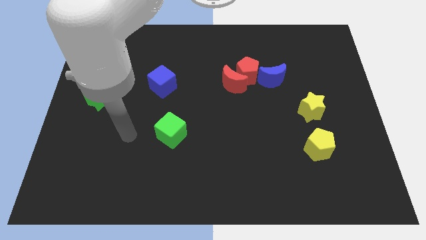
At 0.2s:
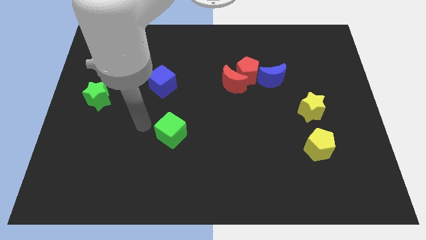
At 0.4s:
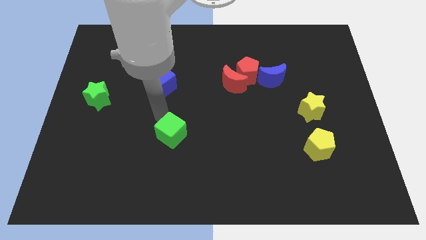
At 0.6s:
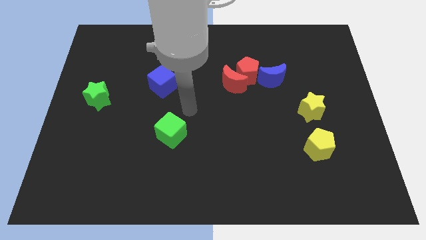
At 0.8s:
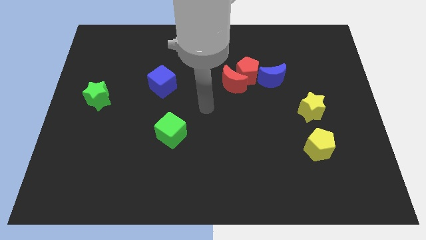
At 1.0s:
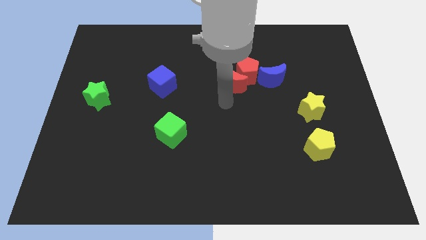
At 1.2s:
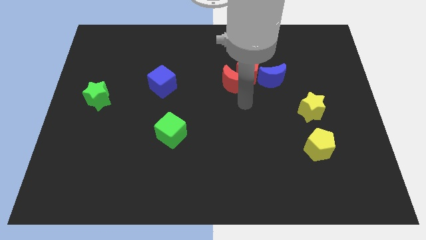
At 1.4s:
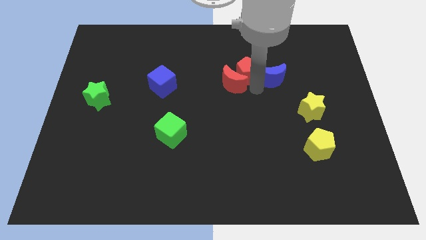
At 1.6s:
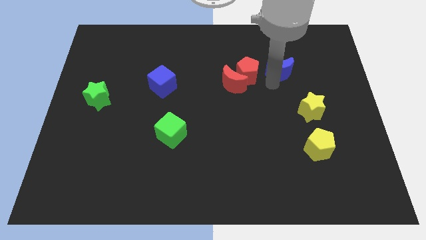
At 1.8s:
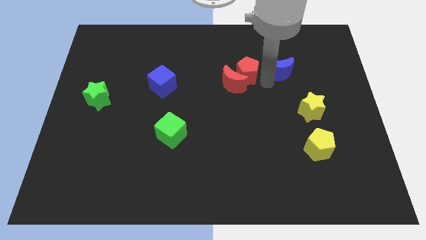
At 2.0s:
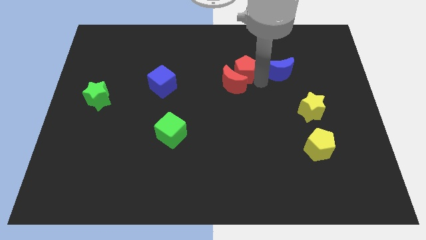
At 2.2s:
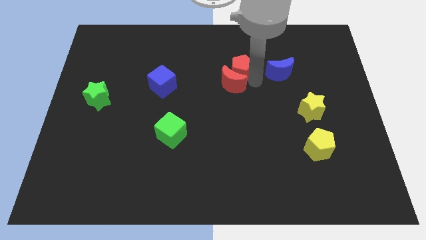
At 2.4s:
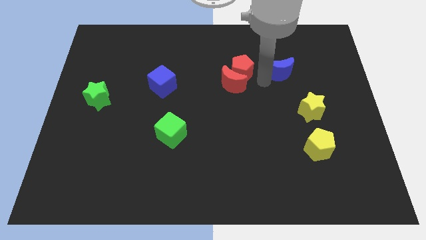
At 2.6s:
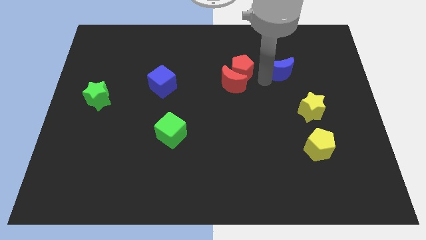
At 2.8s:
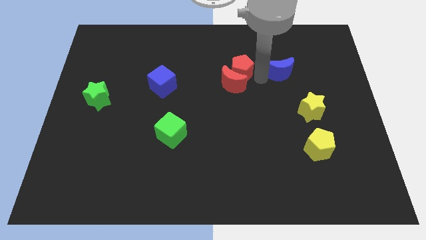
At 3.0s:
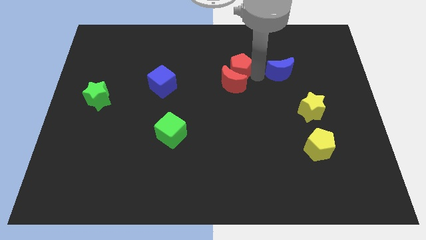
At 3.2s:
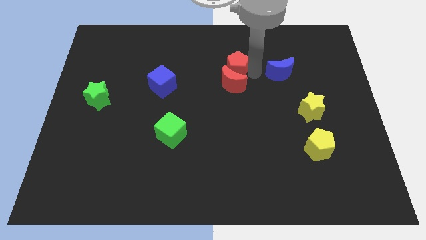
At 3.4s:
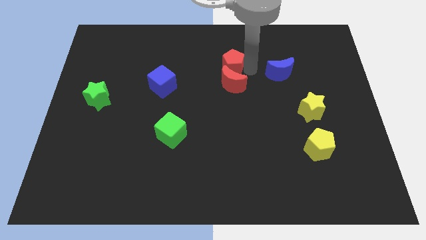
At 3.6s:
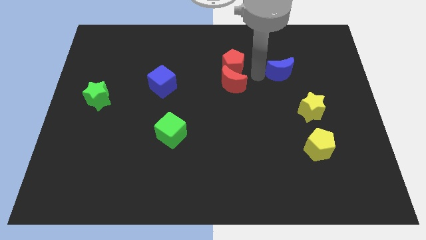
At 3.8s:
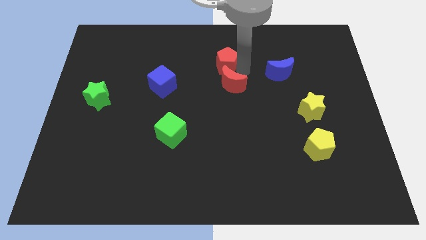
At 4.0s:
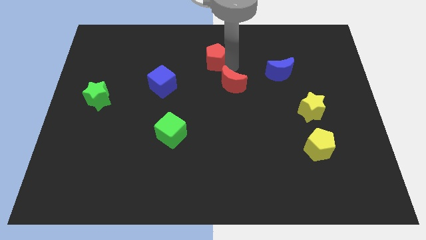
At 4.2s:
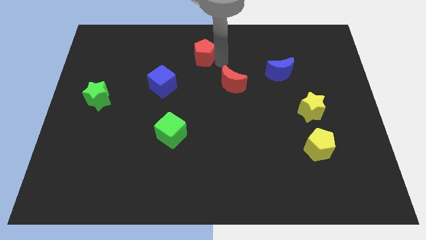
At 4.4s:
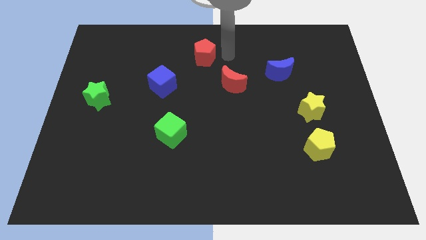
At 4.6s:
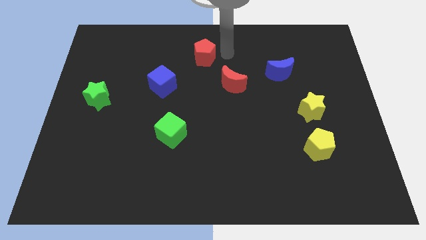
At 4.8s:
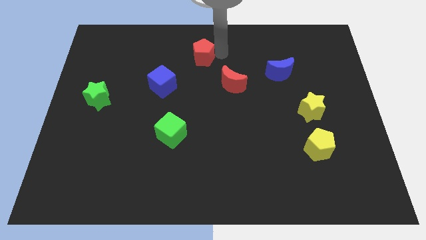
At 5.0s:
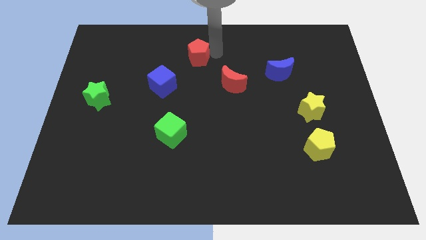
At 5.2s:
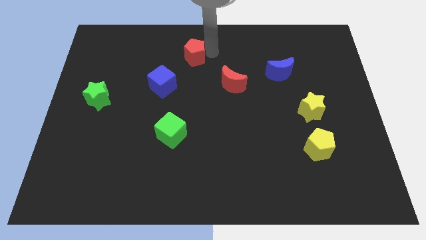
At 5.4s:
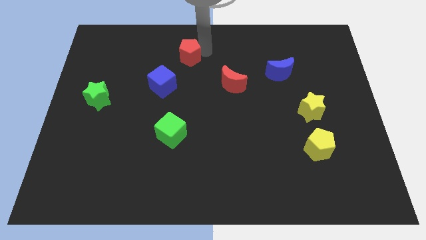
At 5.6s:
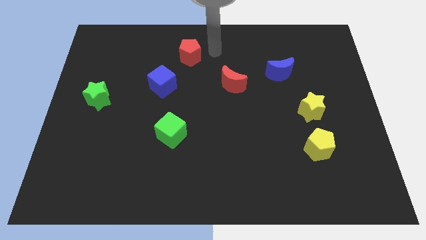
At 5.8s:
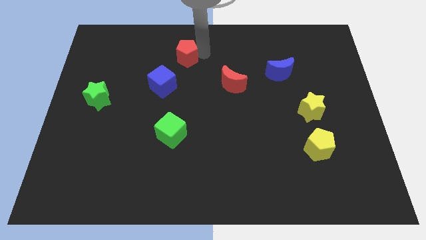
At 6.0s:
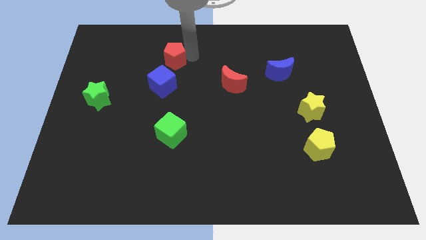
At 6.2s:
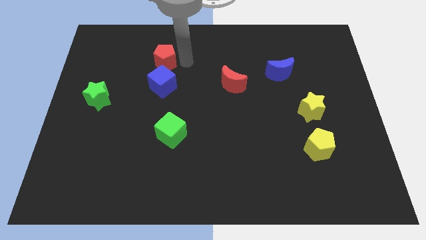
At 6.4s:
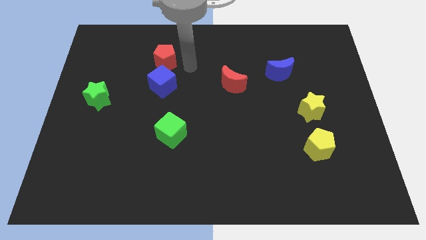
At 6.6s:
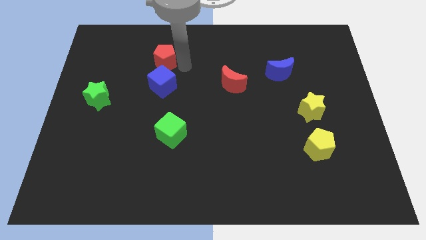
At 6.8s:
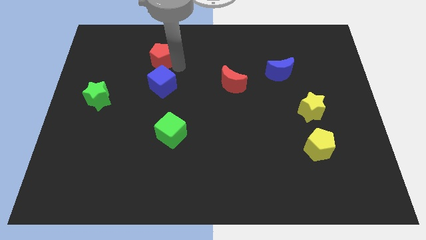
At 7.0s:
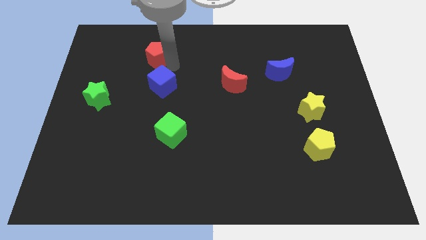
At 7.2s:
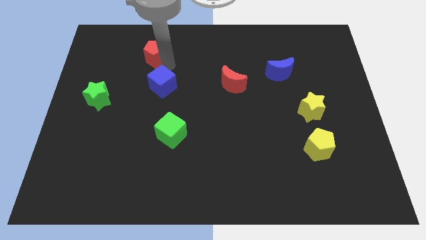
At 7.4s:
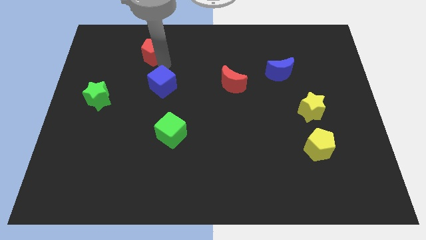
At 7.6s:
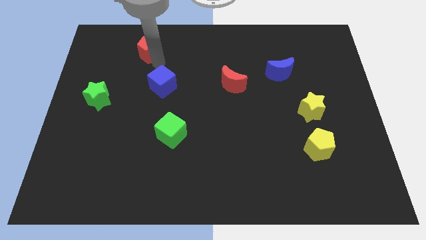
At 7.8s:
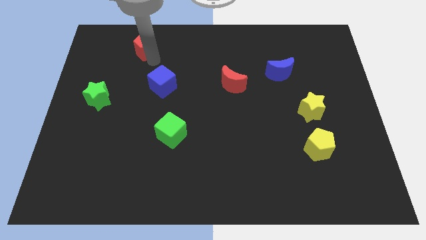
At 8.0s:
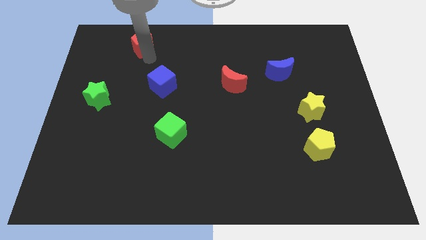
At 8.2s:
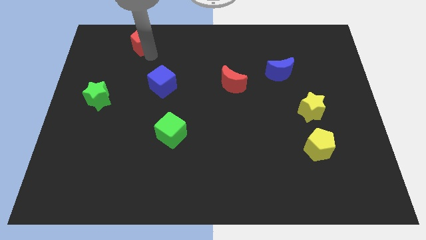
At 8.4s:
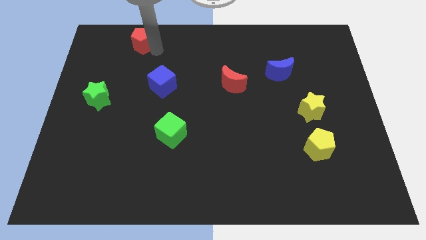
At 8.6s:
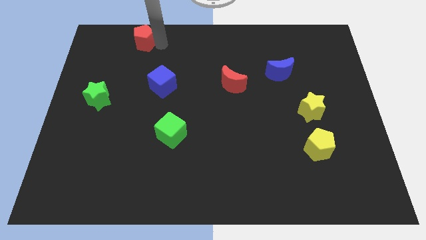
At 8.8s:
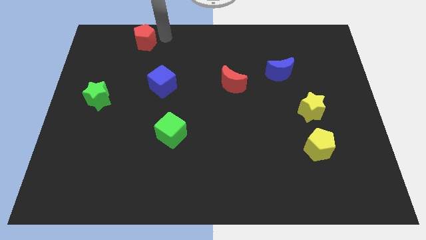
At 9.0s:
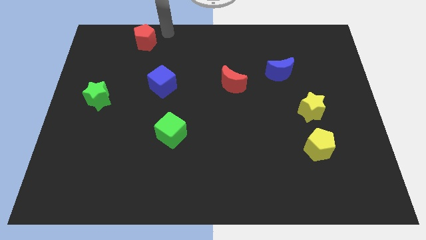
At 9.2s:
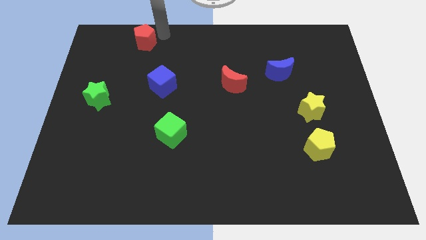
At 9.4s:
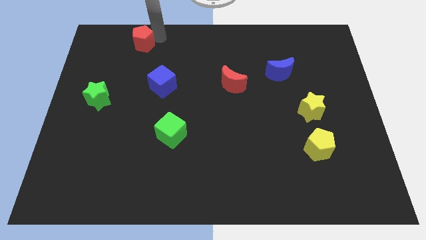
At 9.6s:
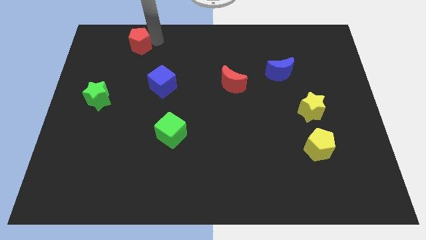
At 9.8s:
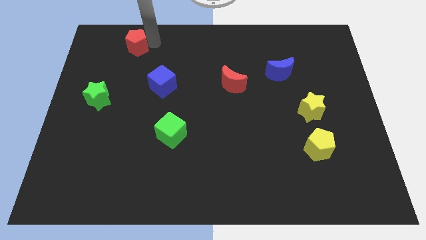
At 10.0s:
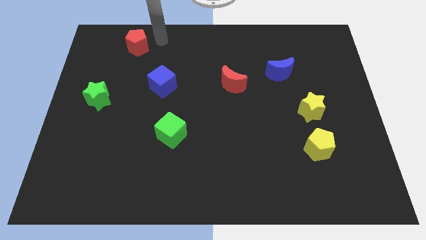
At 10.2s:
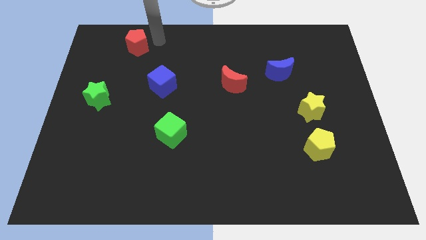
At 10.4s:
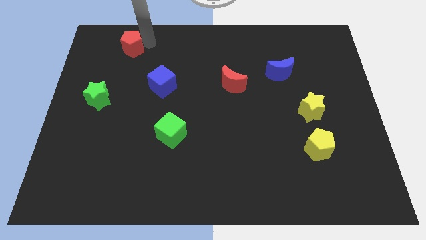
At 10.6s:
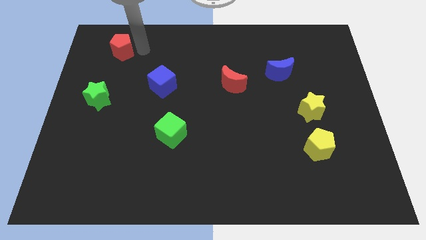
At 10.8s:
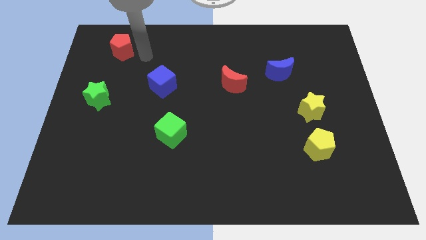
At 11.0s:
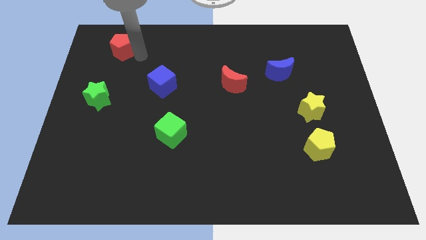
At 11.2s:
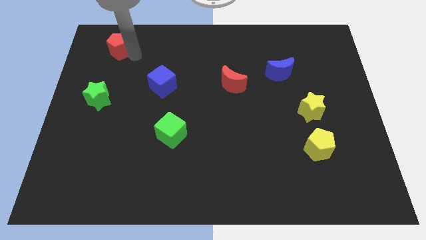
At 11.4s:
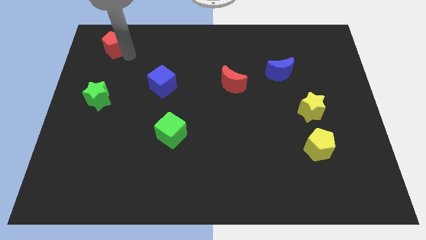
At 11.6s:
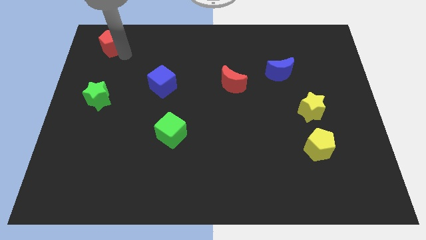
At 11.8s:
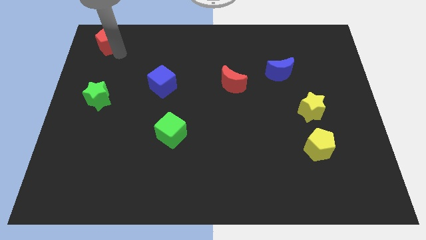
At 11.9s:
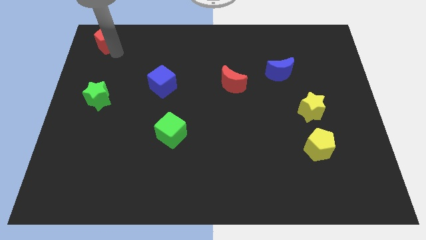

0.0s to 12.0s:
move the red pentagon to the top left
